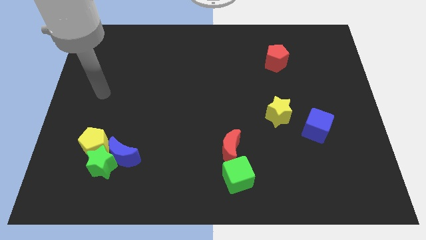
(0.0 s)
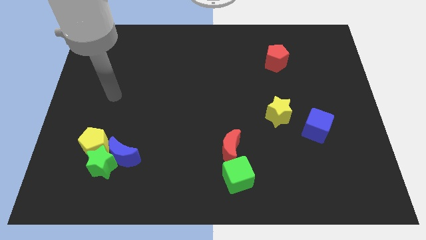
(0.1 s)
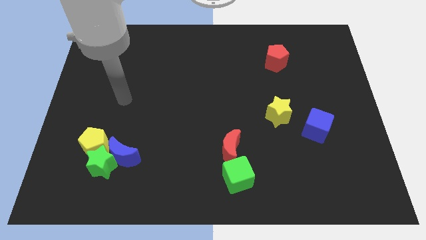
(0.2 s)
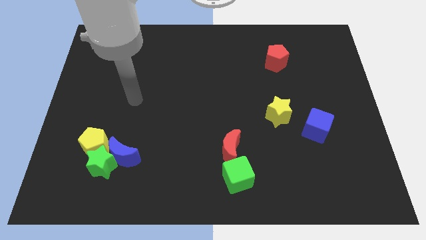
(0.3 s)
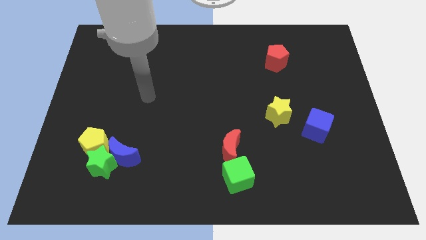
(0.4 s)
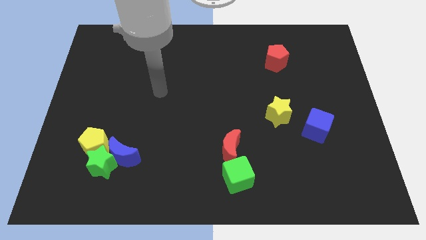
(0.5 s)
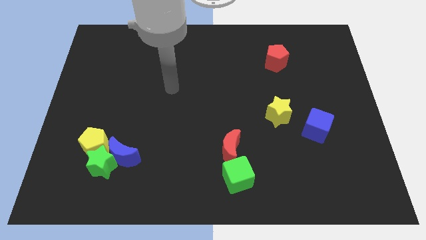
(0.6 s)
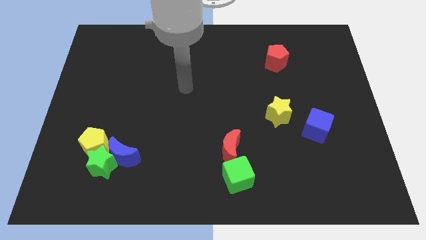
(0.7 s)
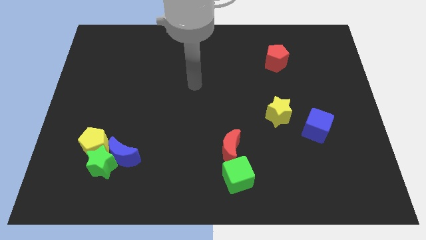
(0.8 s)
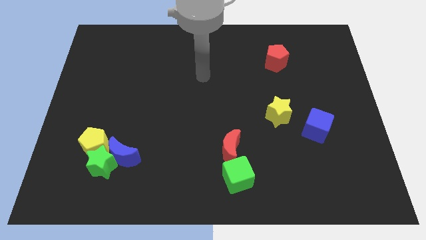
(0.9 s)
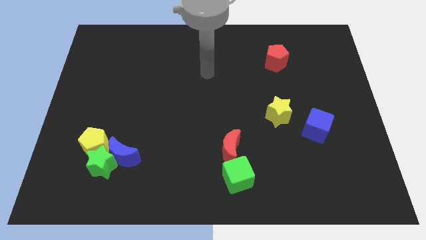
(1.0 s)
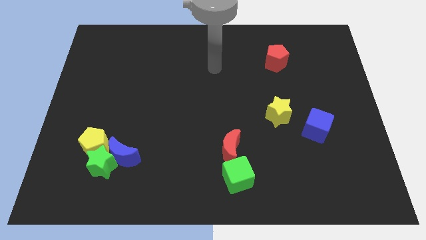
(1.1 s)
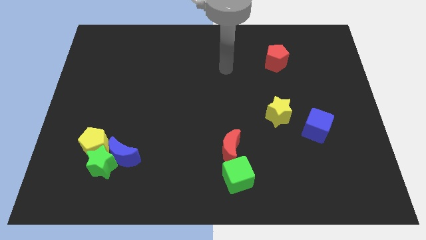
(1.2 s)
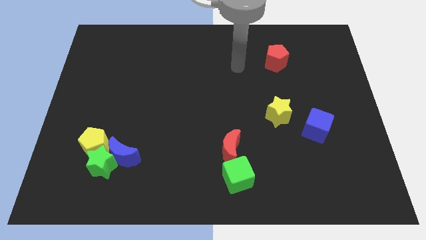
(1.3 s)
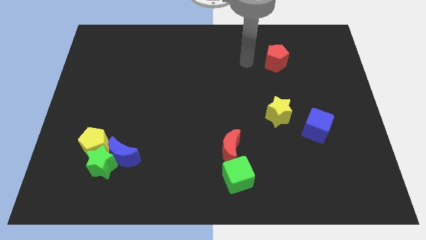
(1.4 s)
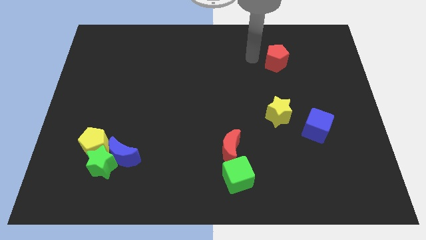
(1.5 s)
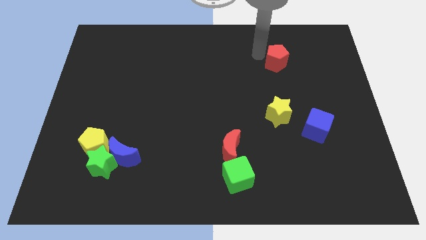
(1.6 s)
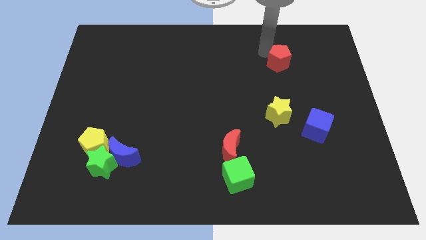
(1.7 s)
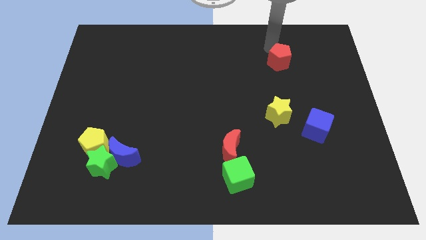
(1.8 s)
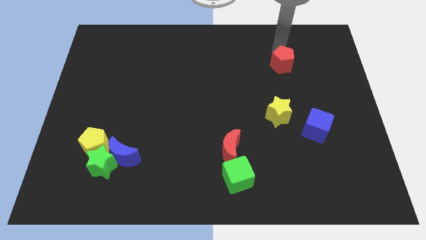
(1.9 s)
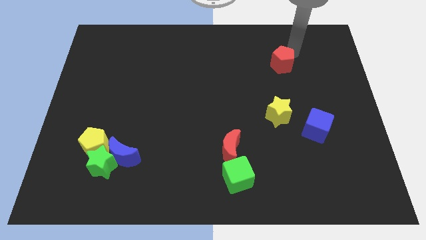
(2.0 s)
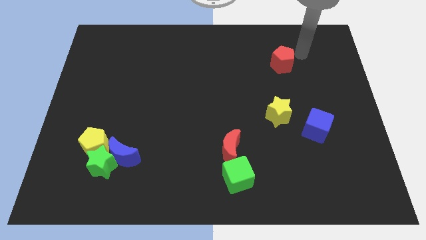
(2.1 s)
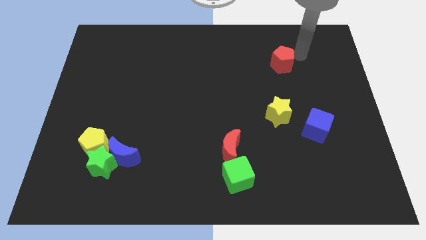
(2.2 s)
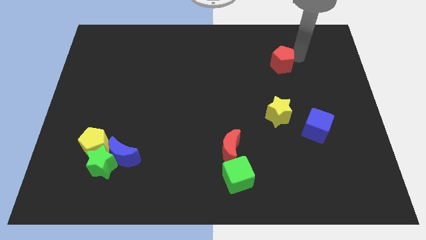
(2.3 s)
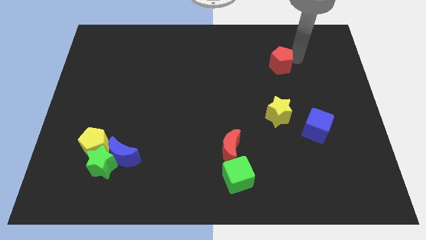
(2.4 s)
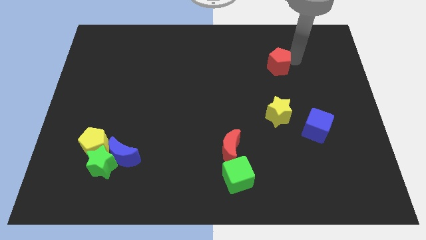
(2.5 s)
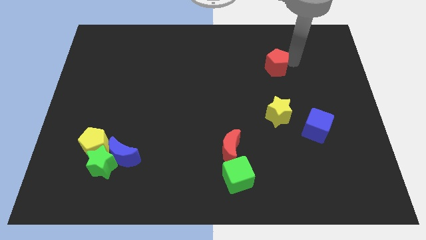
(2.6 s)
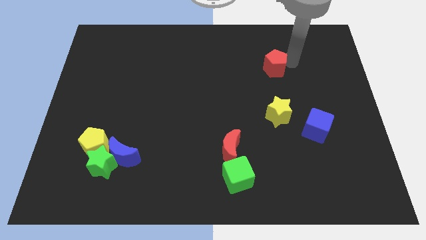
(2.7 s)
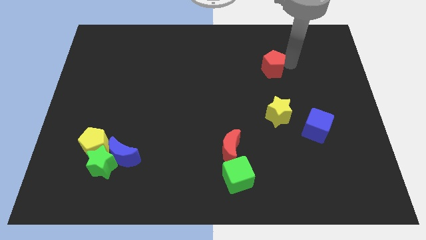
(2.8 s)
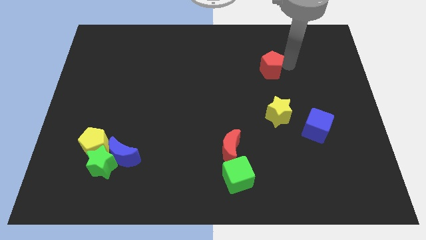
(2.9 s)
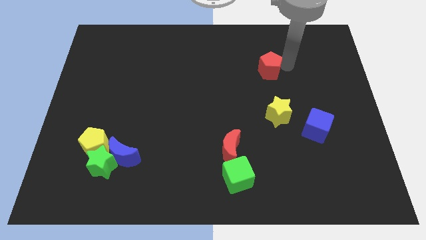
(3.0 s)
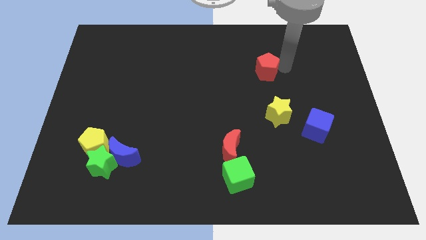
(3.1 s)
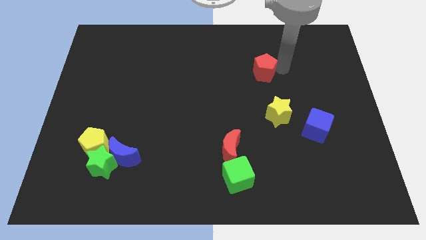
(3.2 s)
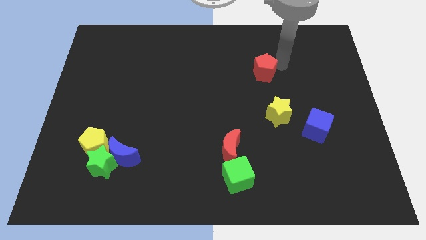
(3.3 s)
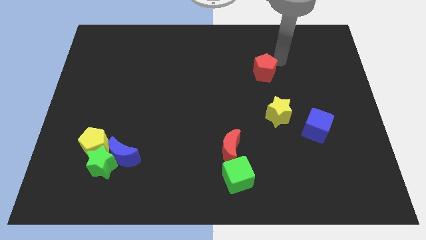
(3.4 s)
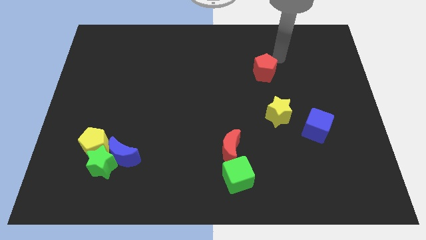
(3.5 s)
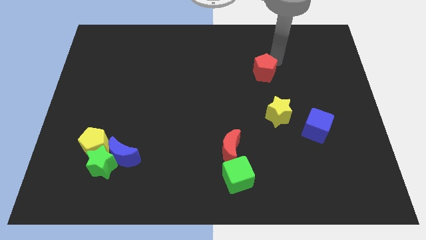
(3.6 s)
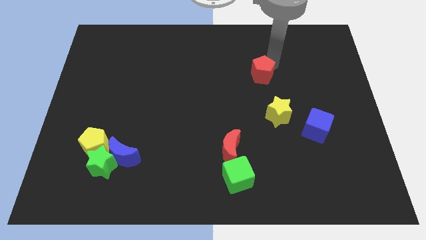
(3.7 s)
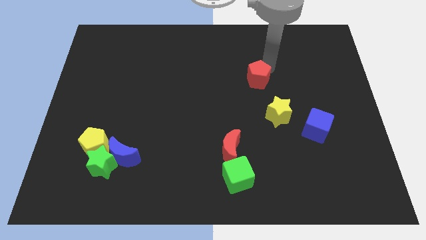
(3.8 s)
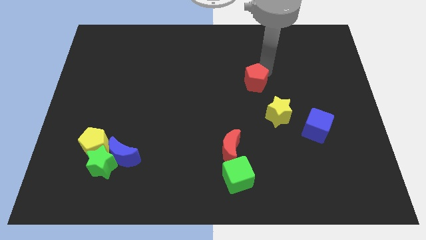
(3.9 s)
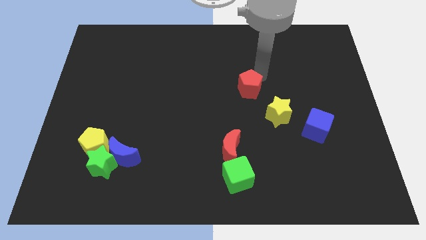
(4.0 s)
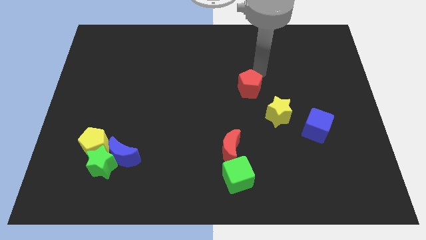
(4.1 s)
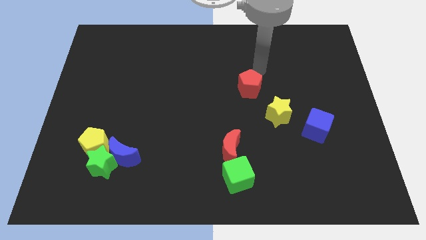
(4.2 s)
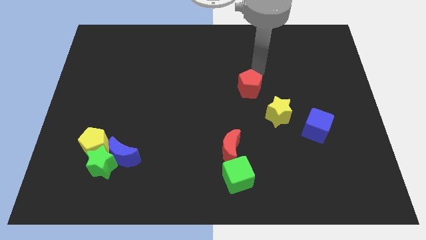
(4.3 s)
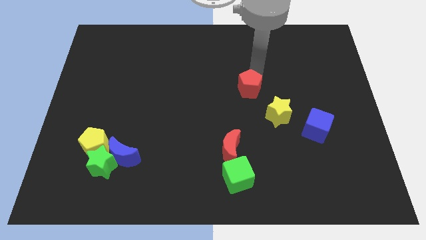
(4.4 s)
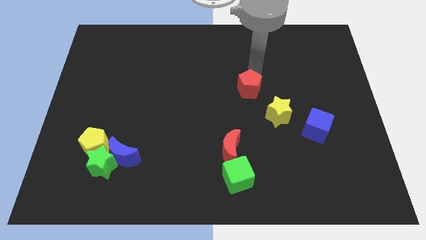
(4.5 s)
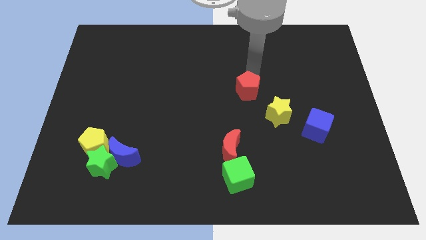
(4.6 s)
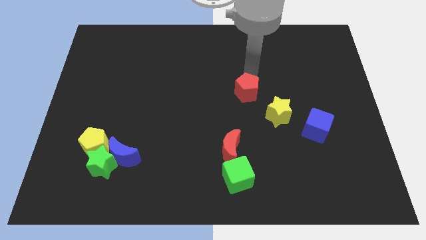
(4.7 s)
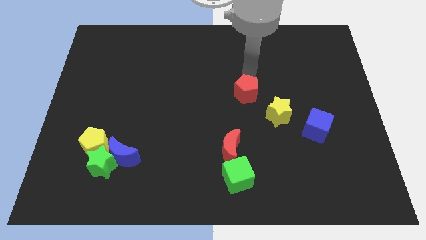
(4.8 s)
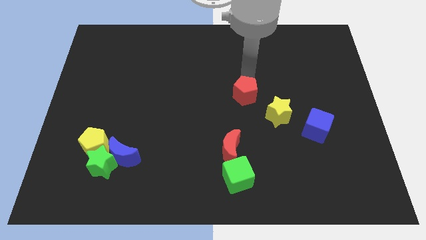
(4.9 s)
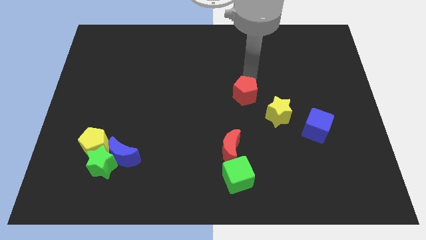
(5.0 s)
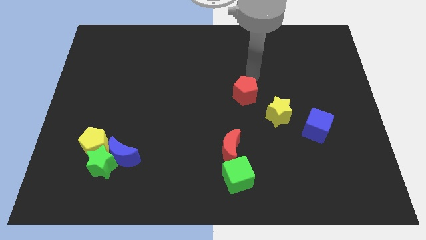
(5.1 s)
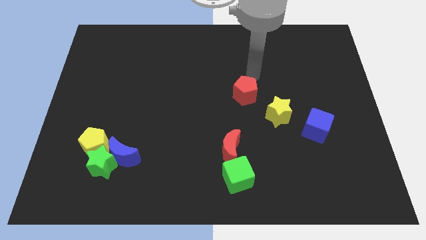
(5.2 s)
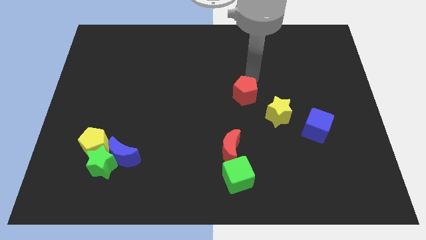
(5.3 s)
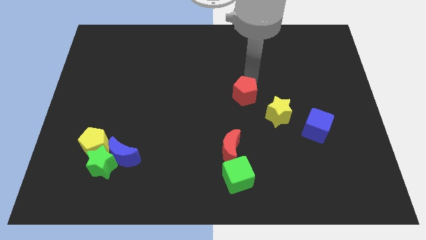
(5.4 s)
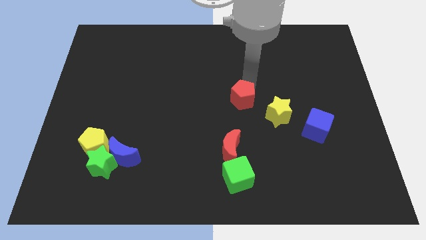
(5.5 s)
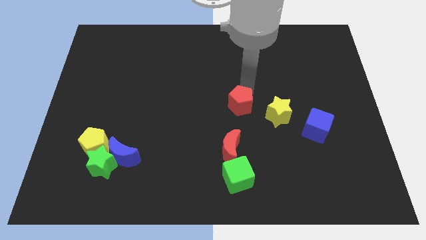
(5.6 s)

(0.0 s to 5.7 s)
slide the red pentagon to the left of the yellow star

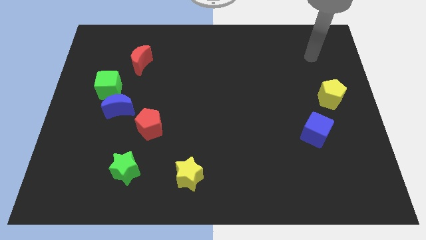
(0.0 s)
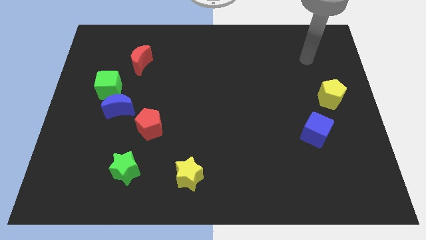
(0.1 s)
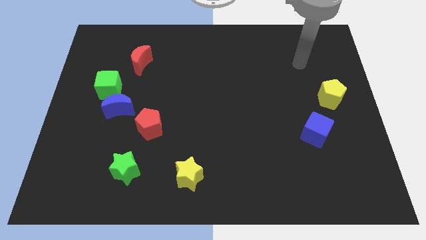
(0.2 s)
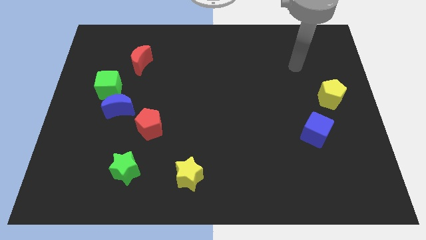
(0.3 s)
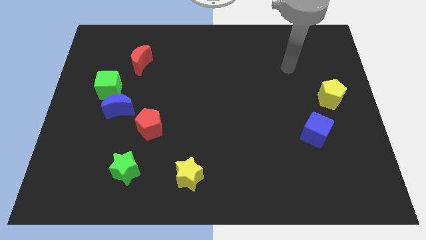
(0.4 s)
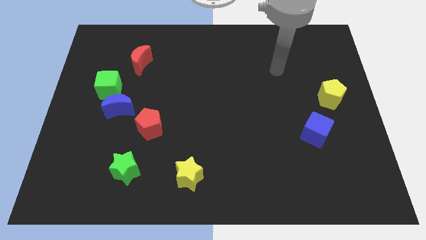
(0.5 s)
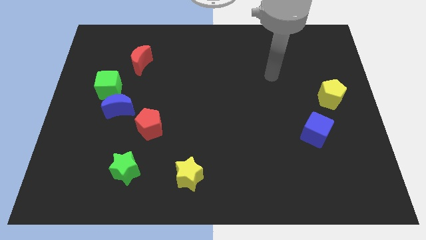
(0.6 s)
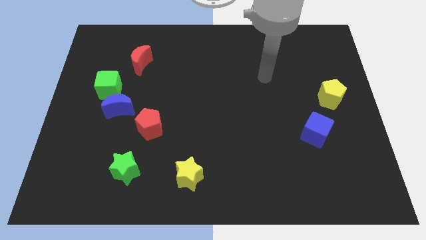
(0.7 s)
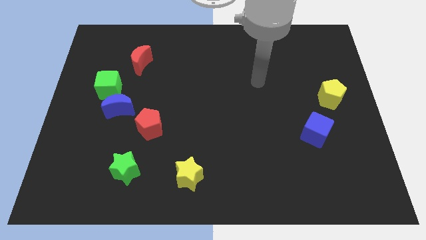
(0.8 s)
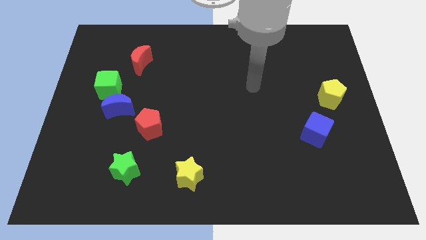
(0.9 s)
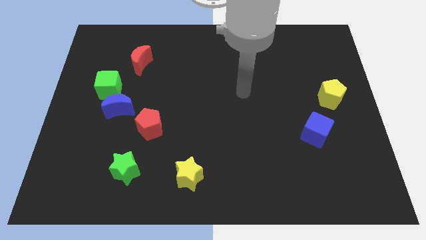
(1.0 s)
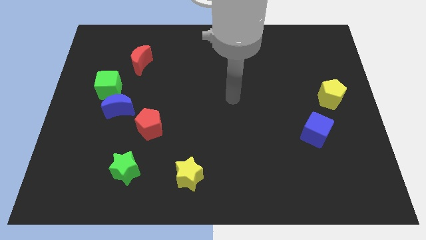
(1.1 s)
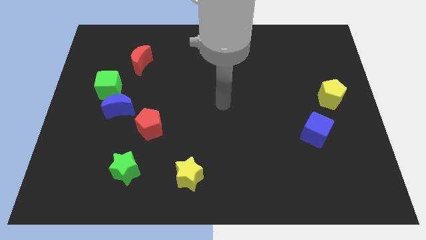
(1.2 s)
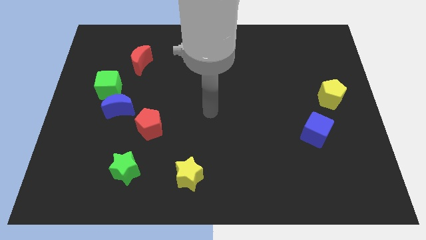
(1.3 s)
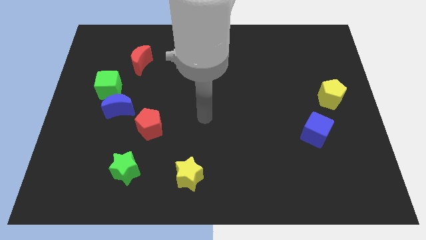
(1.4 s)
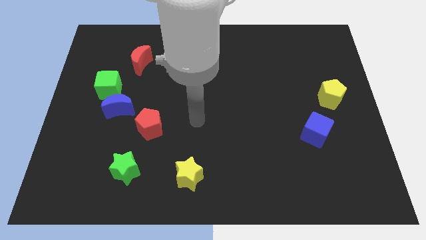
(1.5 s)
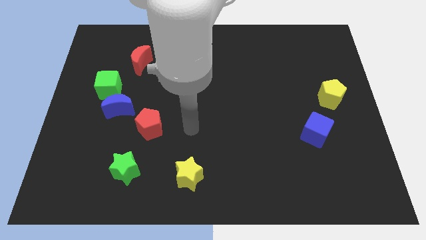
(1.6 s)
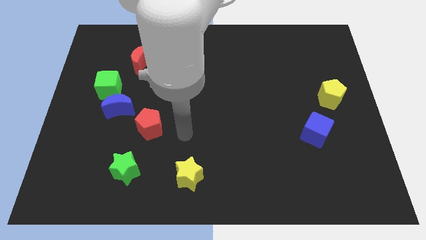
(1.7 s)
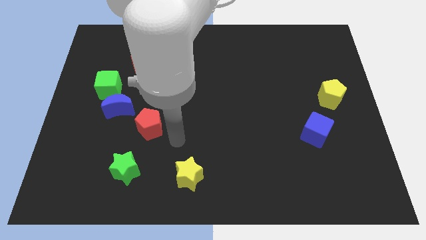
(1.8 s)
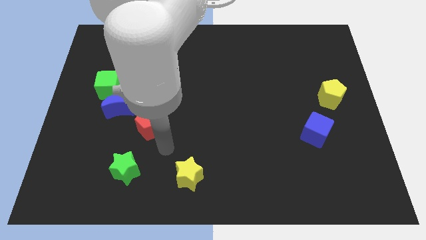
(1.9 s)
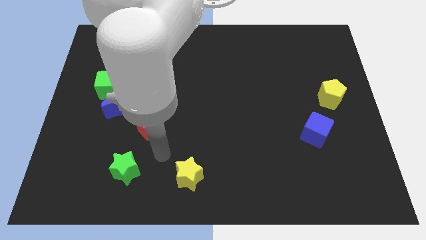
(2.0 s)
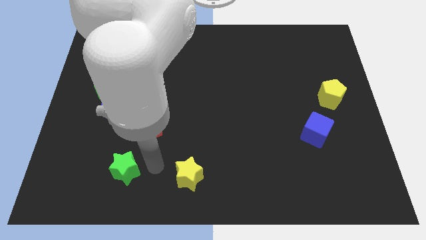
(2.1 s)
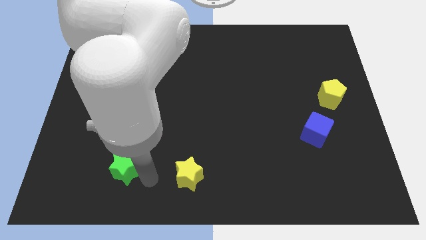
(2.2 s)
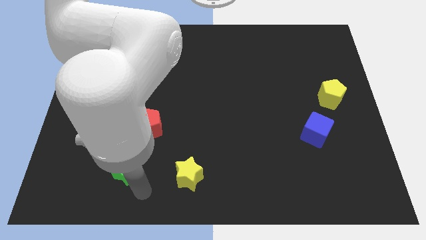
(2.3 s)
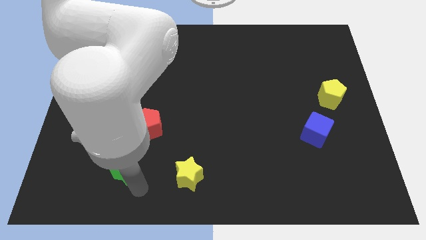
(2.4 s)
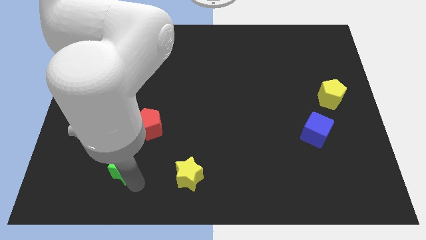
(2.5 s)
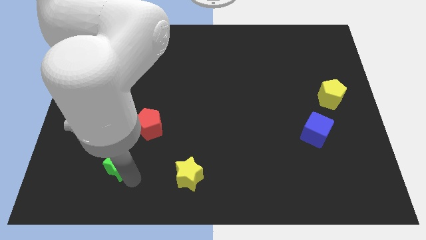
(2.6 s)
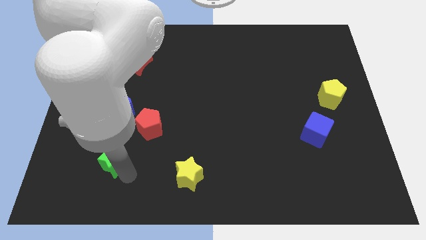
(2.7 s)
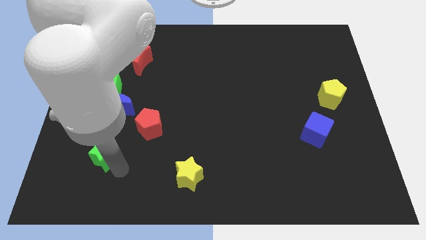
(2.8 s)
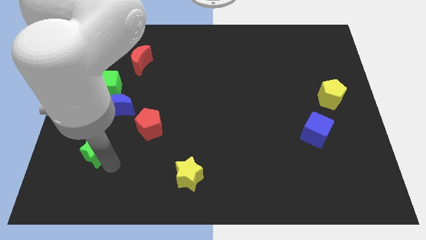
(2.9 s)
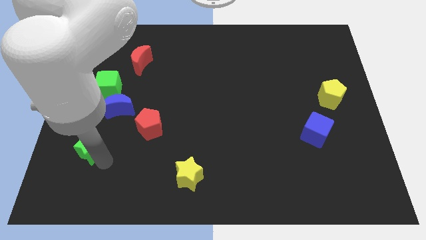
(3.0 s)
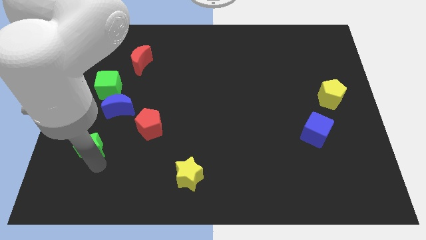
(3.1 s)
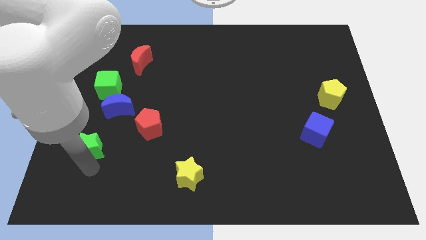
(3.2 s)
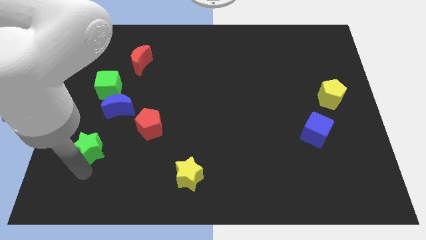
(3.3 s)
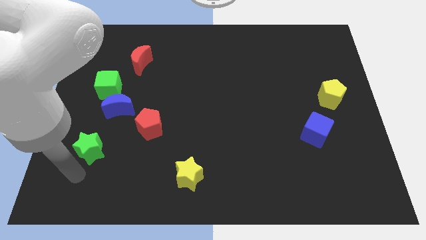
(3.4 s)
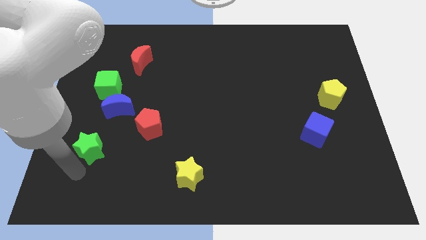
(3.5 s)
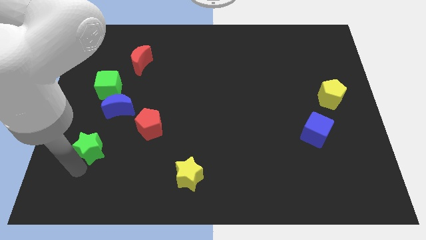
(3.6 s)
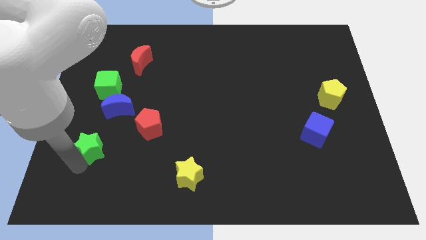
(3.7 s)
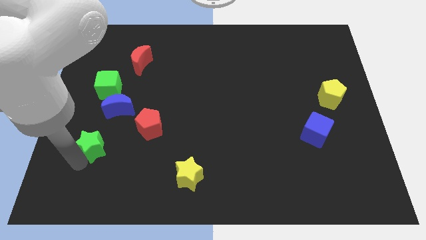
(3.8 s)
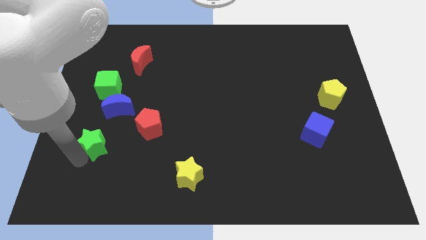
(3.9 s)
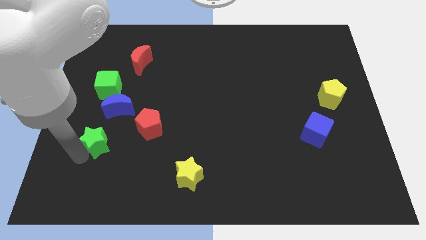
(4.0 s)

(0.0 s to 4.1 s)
move the green star just left of the red pentagon
